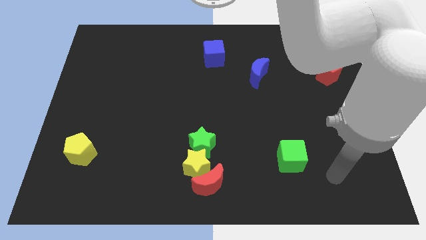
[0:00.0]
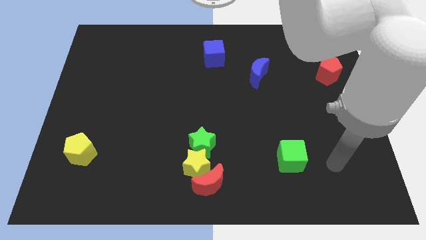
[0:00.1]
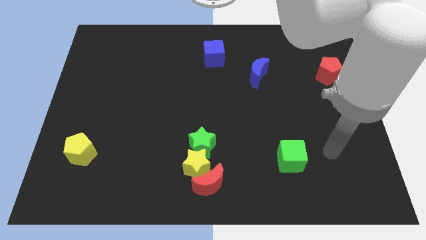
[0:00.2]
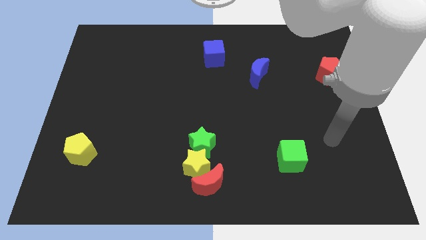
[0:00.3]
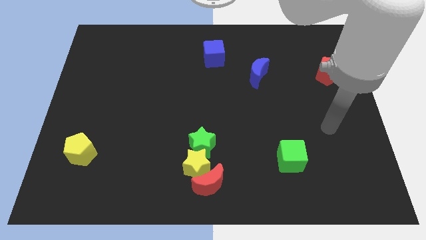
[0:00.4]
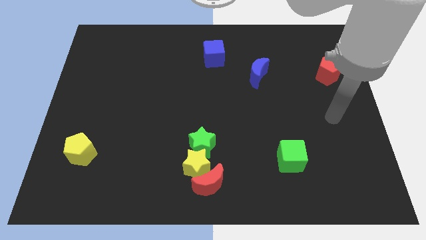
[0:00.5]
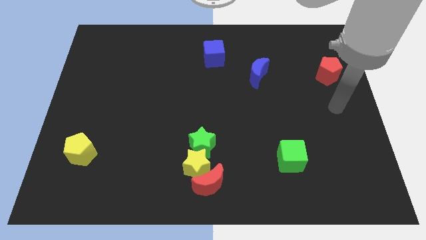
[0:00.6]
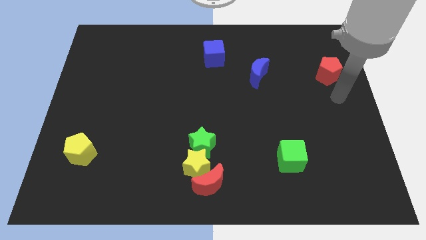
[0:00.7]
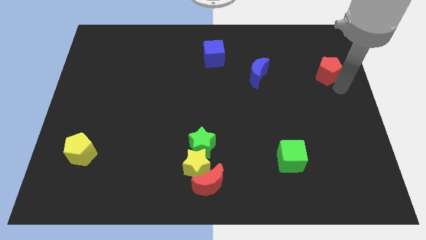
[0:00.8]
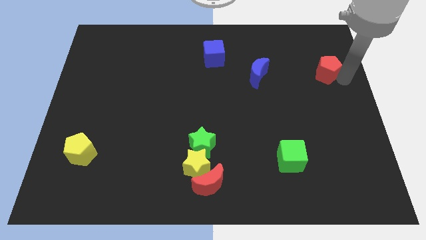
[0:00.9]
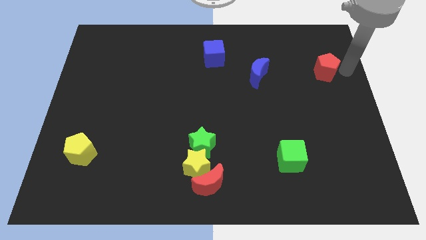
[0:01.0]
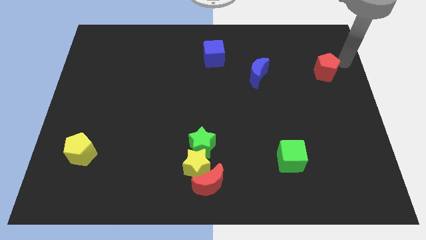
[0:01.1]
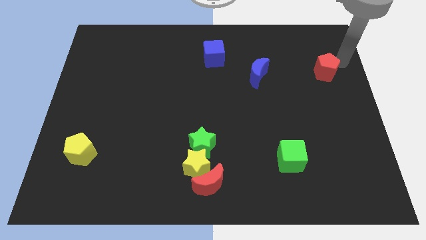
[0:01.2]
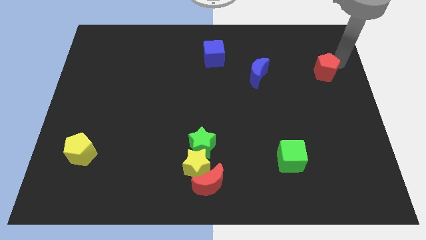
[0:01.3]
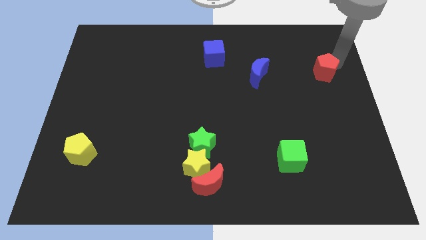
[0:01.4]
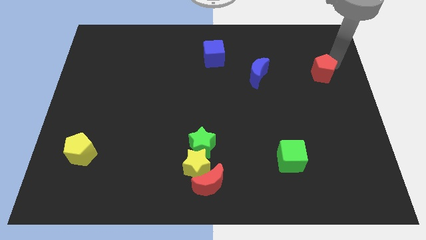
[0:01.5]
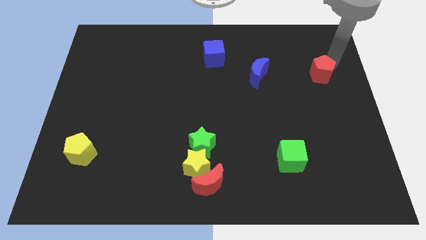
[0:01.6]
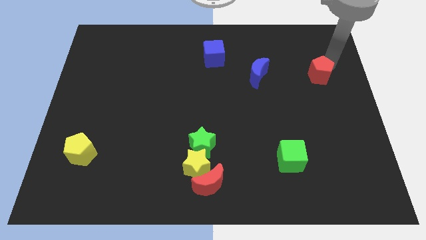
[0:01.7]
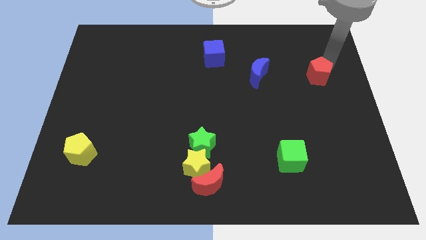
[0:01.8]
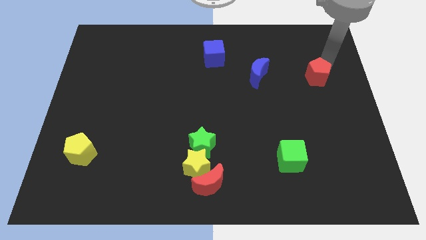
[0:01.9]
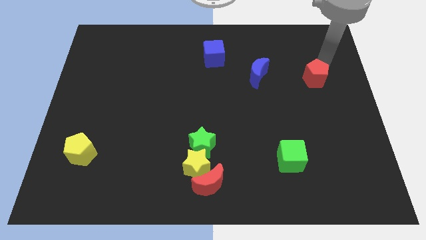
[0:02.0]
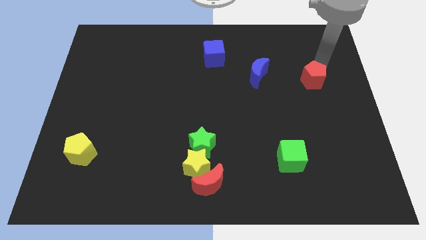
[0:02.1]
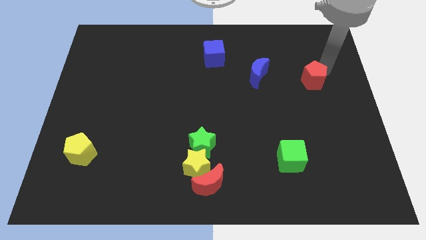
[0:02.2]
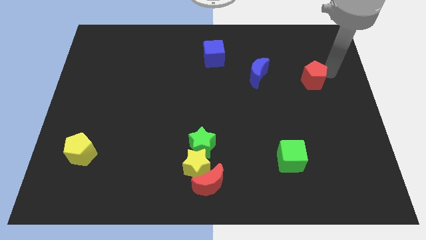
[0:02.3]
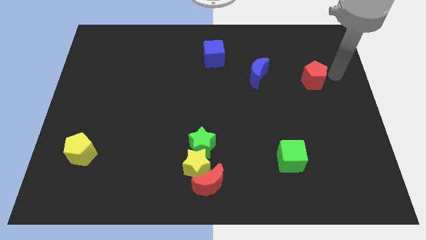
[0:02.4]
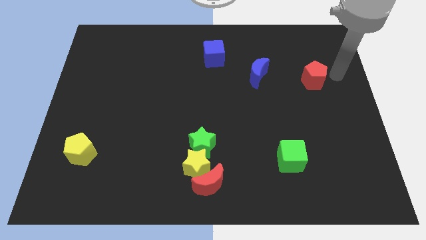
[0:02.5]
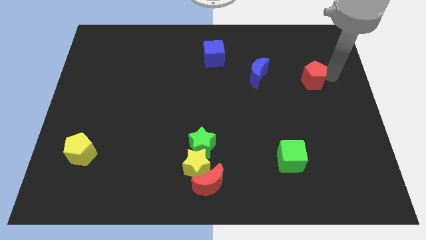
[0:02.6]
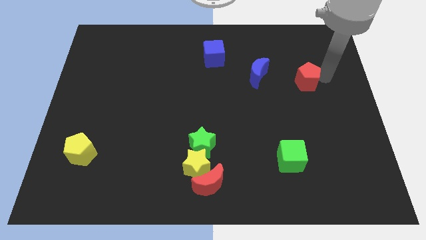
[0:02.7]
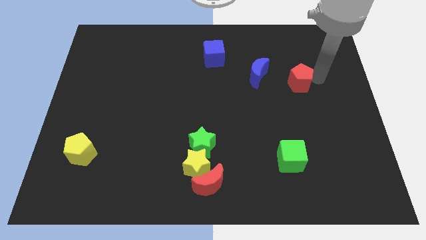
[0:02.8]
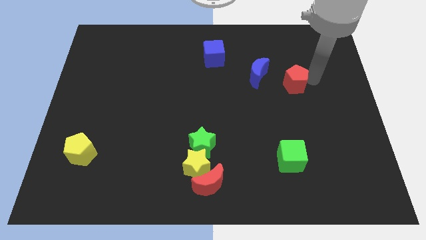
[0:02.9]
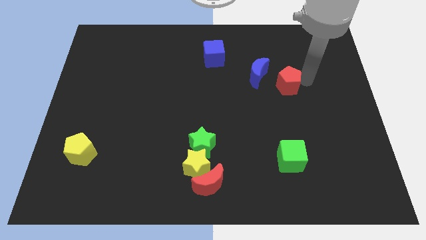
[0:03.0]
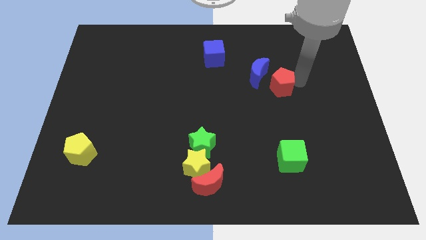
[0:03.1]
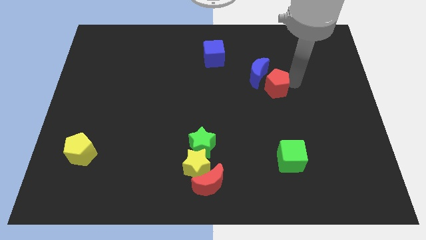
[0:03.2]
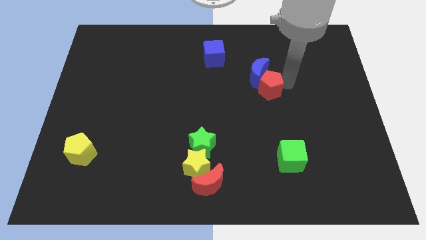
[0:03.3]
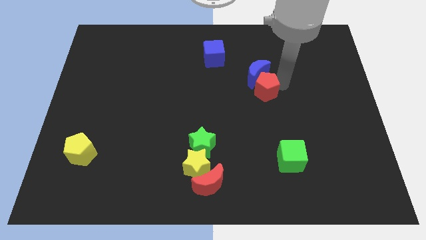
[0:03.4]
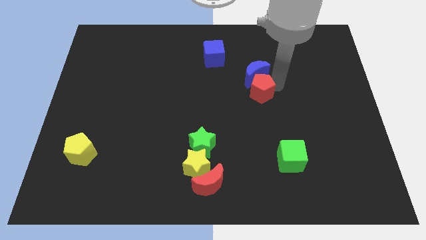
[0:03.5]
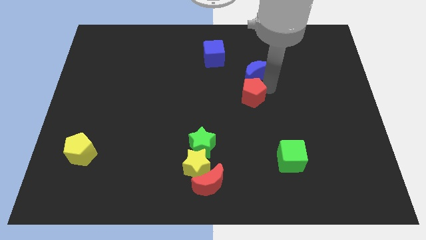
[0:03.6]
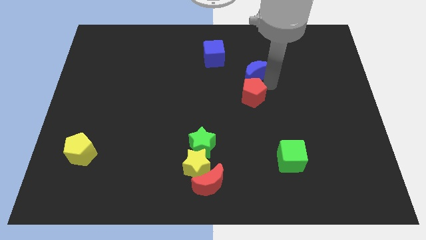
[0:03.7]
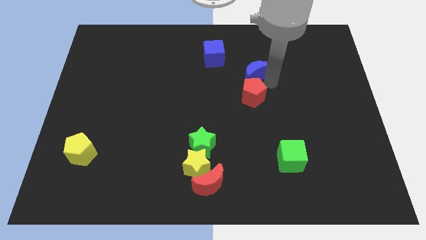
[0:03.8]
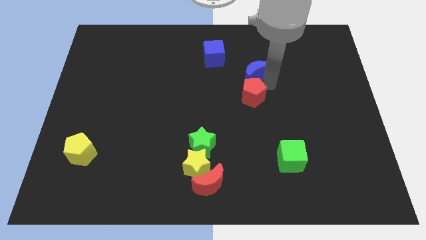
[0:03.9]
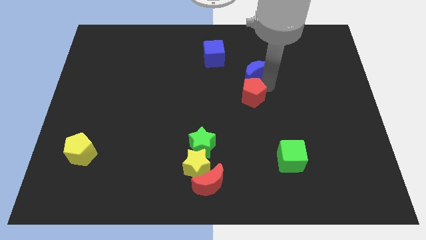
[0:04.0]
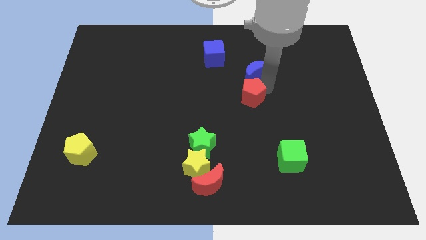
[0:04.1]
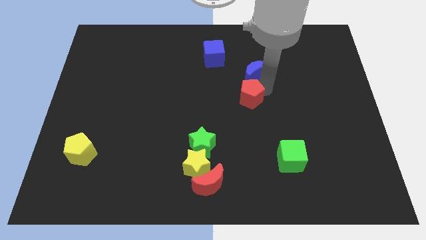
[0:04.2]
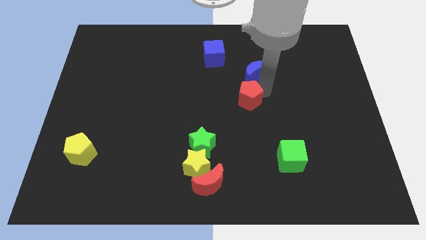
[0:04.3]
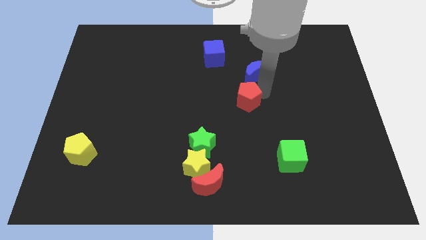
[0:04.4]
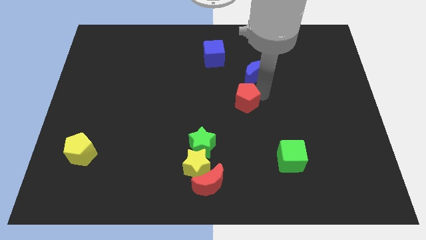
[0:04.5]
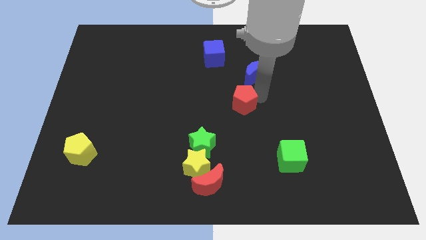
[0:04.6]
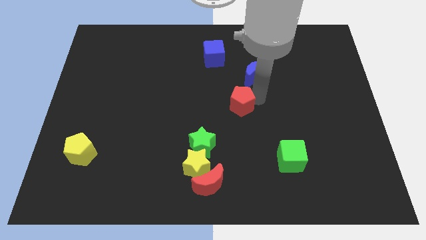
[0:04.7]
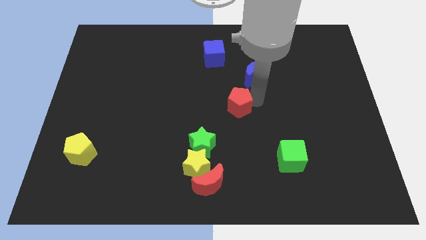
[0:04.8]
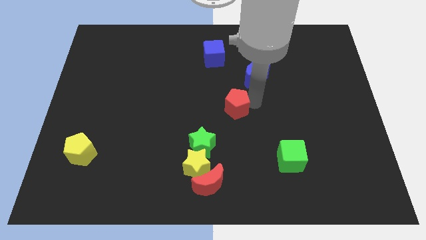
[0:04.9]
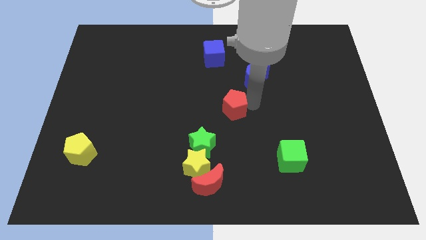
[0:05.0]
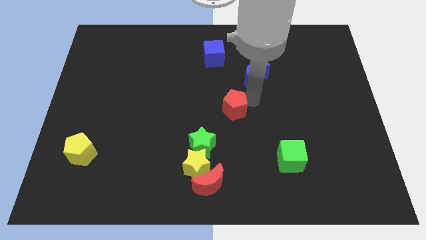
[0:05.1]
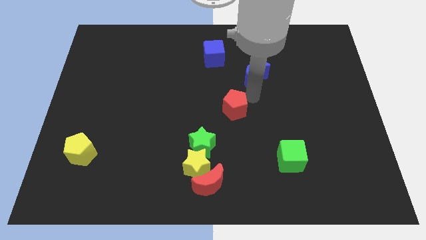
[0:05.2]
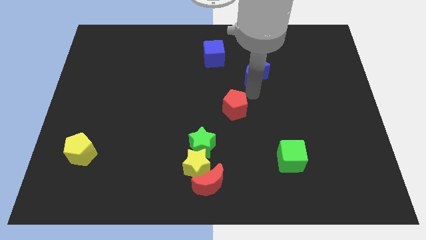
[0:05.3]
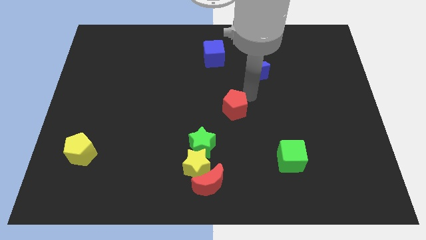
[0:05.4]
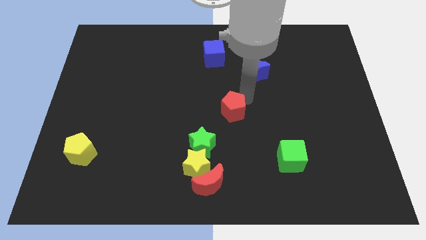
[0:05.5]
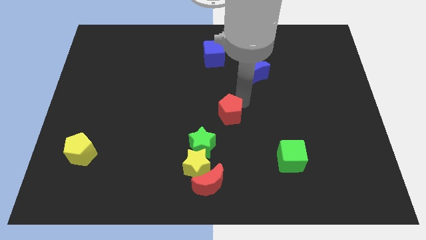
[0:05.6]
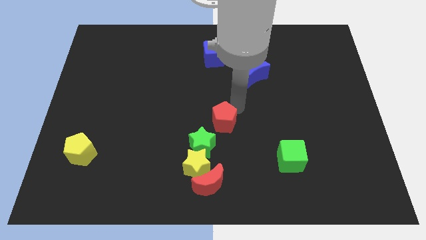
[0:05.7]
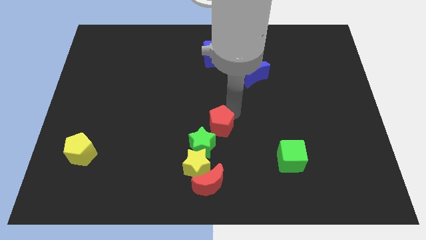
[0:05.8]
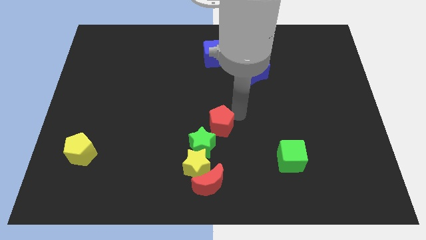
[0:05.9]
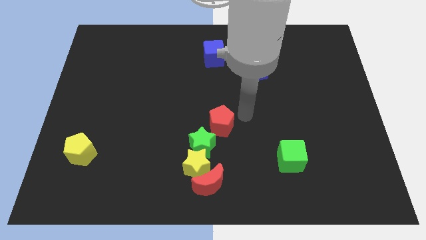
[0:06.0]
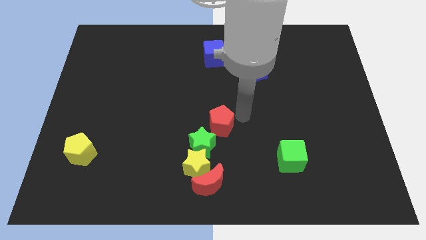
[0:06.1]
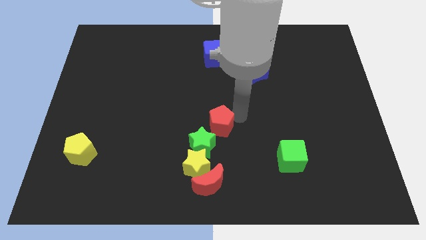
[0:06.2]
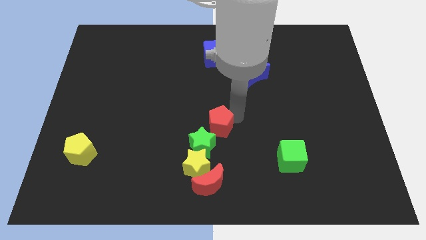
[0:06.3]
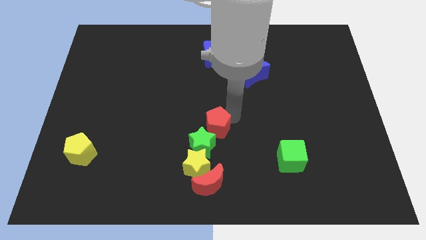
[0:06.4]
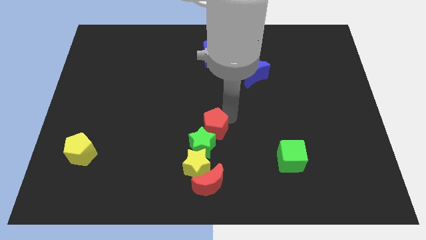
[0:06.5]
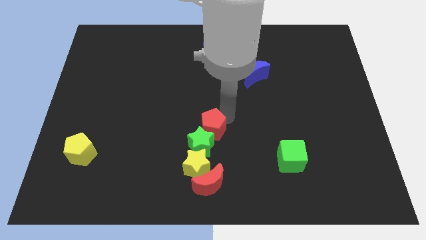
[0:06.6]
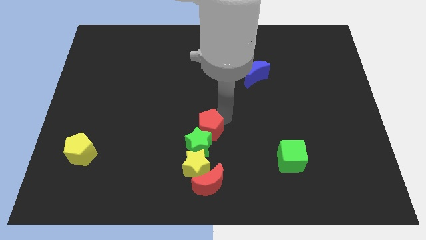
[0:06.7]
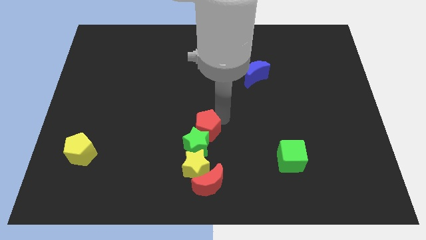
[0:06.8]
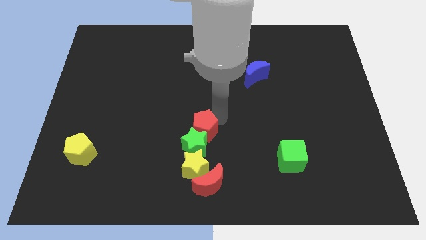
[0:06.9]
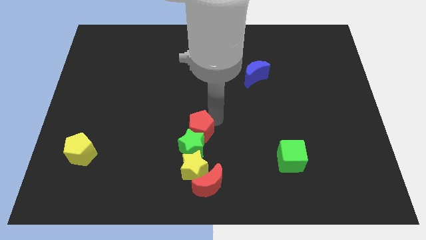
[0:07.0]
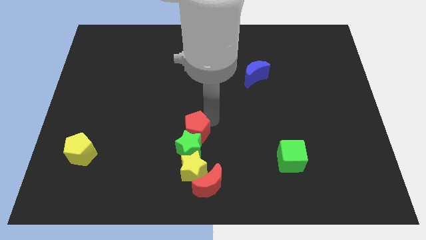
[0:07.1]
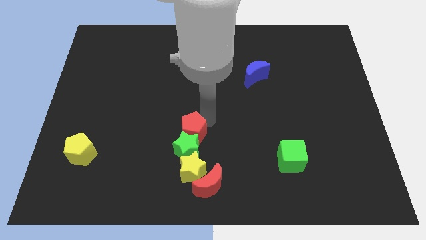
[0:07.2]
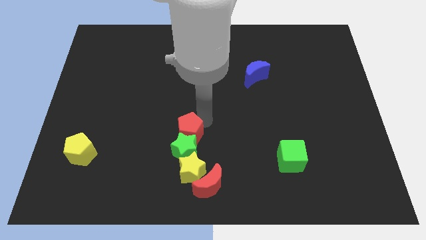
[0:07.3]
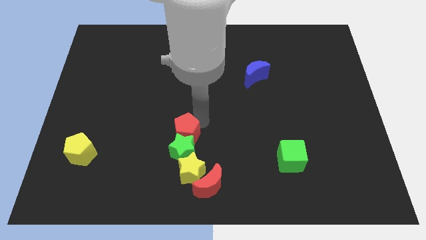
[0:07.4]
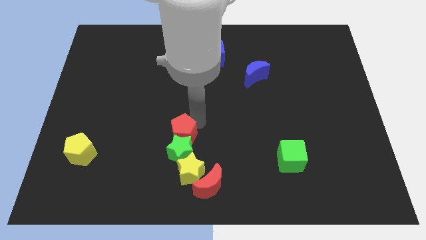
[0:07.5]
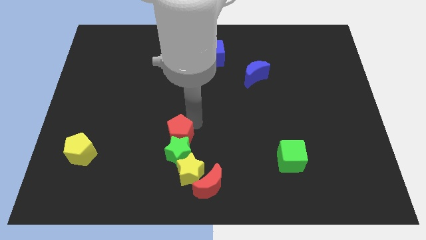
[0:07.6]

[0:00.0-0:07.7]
slide the red pentagon diagonally up and to the left of the yellow star

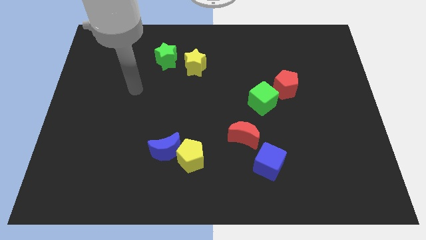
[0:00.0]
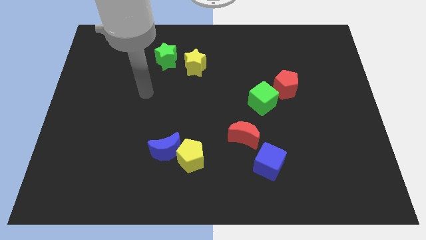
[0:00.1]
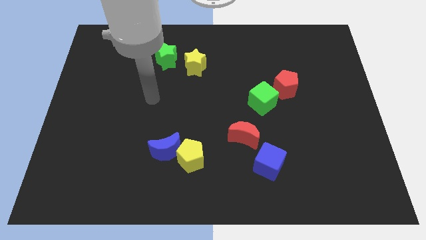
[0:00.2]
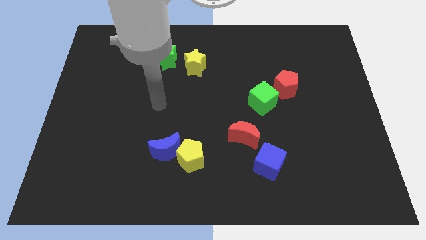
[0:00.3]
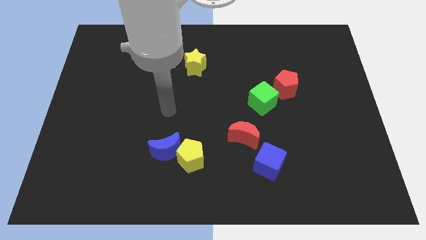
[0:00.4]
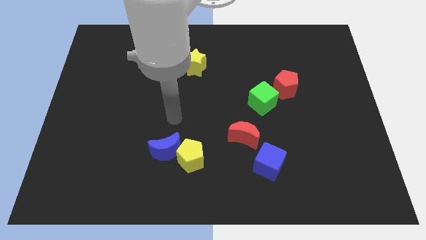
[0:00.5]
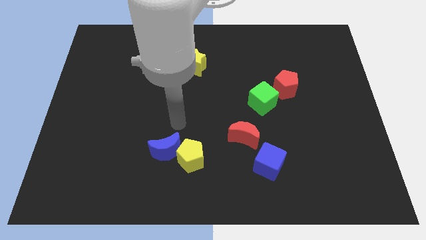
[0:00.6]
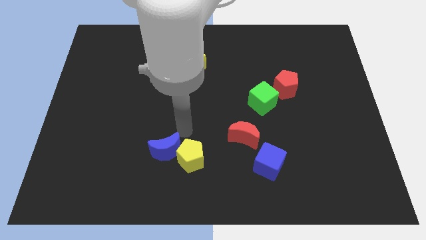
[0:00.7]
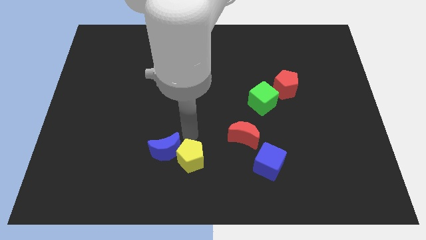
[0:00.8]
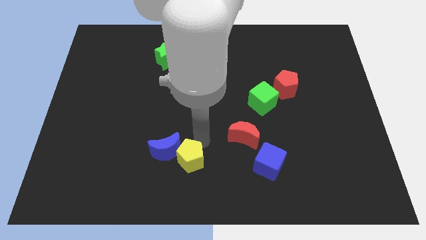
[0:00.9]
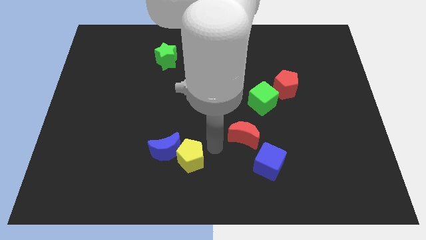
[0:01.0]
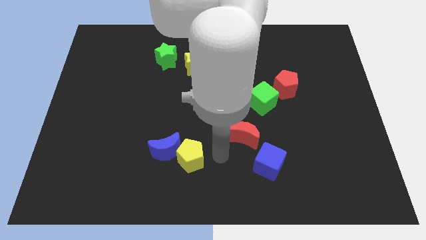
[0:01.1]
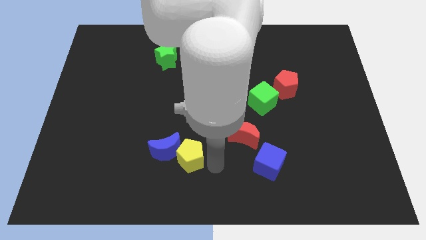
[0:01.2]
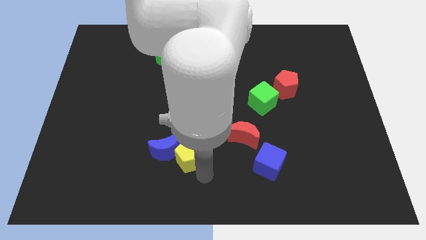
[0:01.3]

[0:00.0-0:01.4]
move the yellow pentagon diagonally up and to the right of the blue moon
